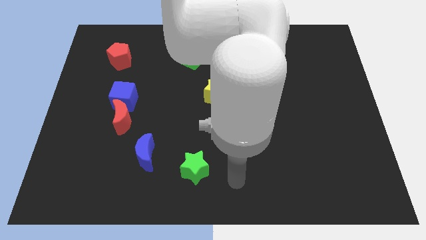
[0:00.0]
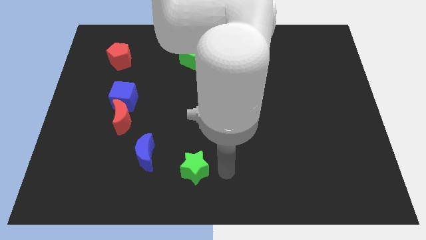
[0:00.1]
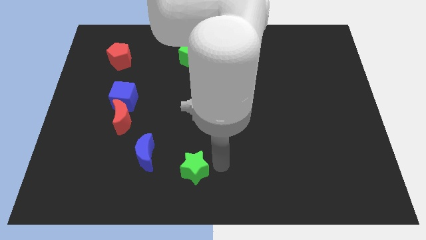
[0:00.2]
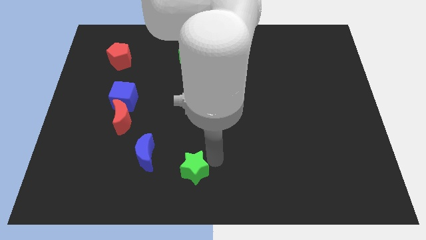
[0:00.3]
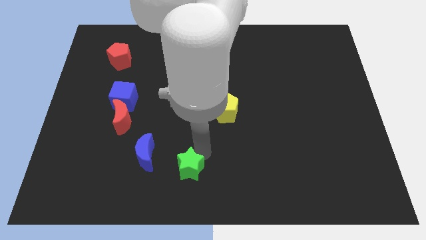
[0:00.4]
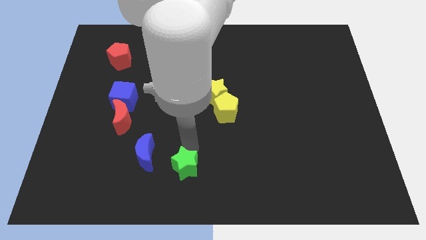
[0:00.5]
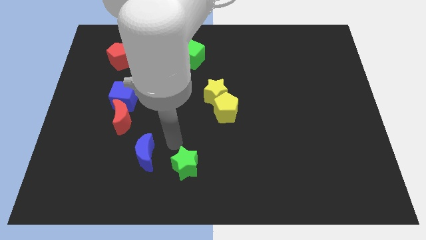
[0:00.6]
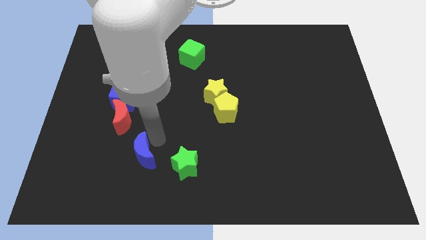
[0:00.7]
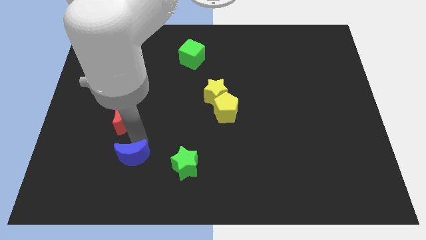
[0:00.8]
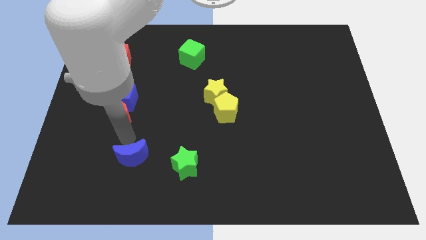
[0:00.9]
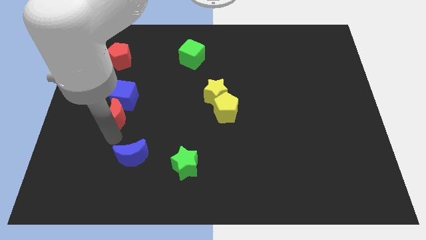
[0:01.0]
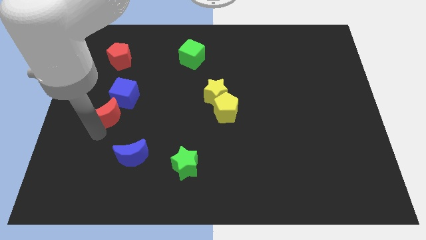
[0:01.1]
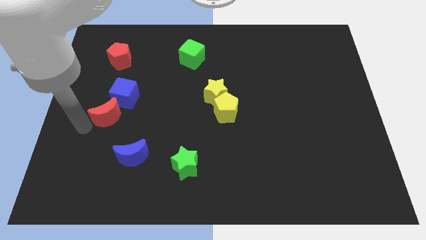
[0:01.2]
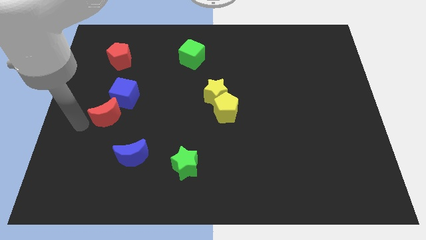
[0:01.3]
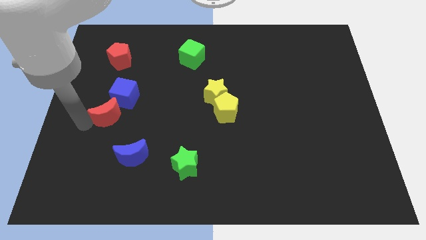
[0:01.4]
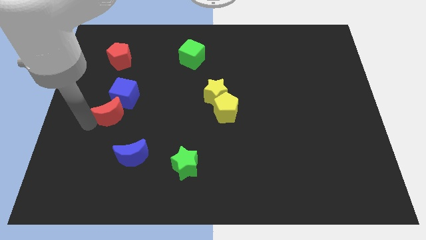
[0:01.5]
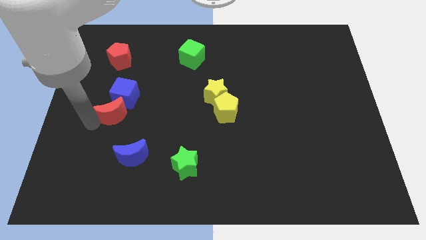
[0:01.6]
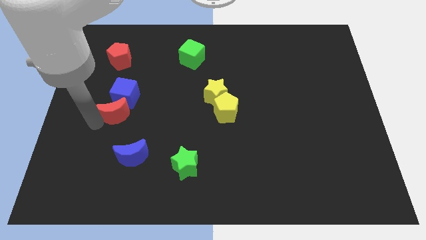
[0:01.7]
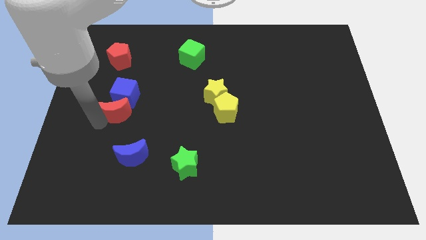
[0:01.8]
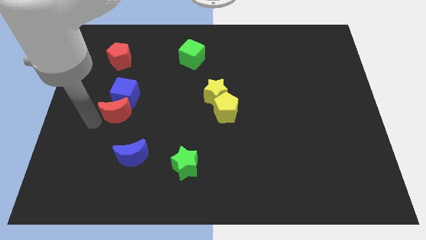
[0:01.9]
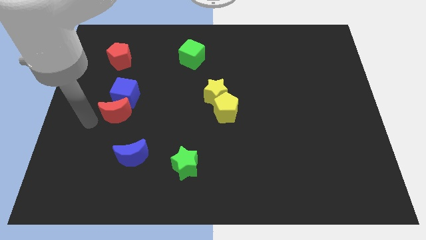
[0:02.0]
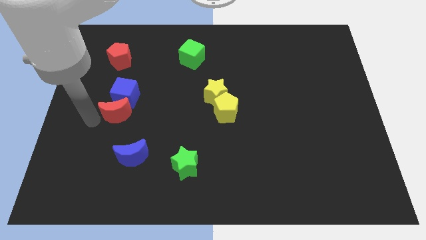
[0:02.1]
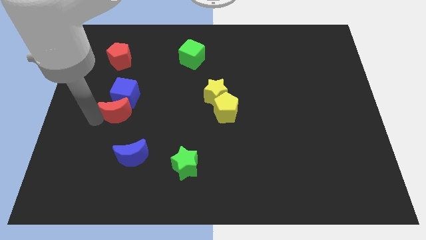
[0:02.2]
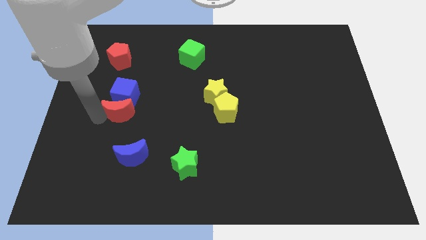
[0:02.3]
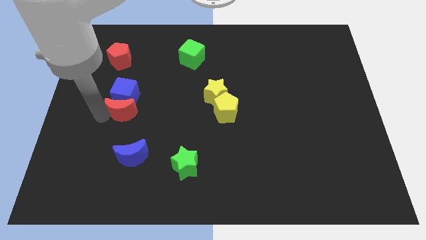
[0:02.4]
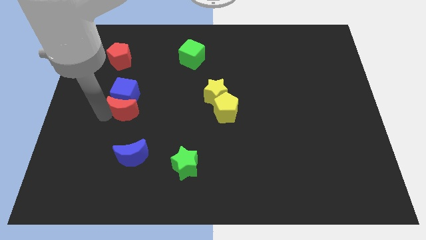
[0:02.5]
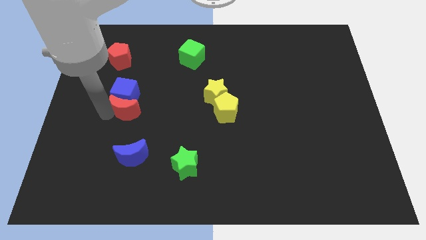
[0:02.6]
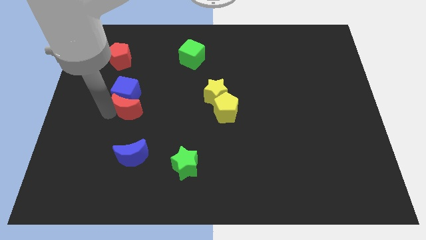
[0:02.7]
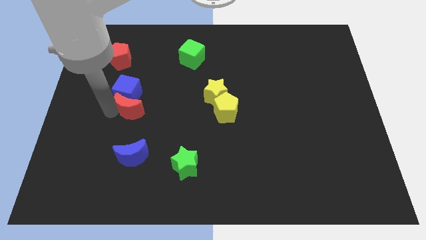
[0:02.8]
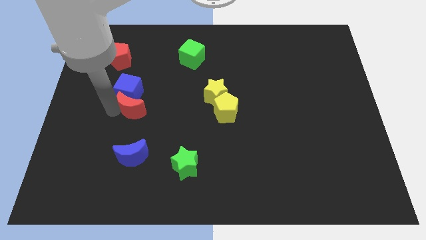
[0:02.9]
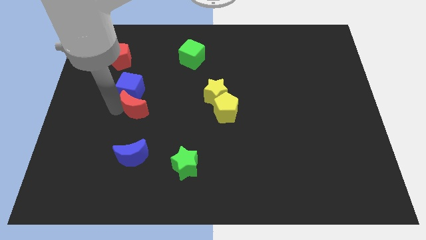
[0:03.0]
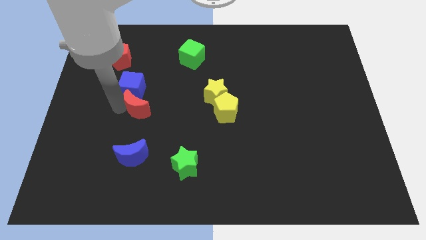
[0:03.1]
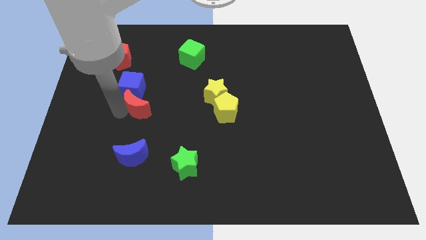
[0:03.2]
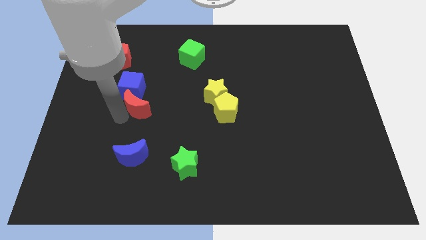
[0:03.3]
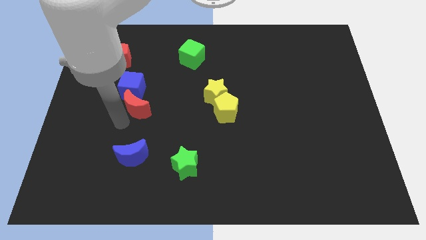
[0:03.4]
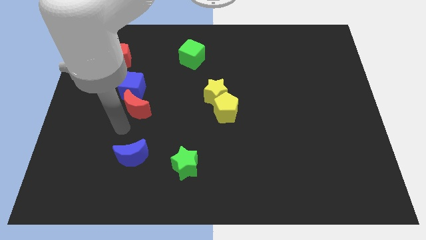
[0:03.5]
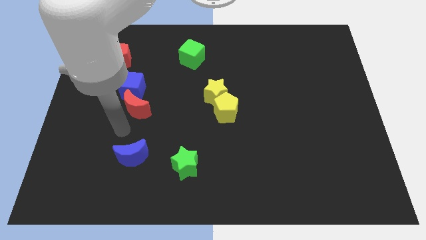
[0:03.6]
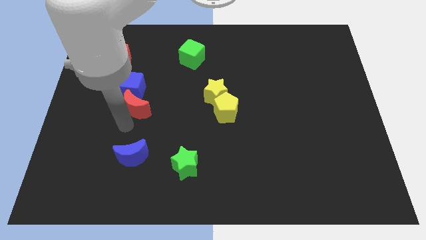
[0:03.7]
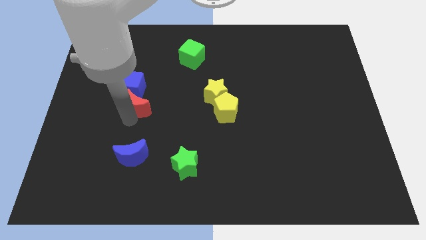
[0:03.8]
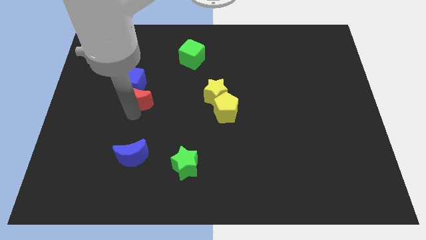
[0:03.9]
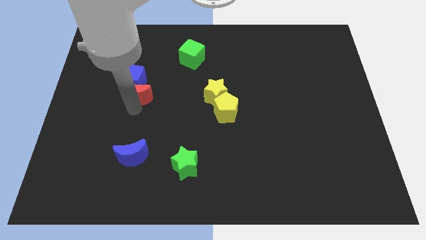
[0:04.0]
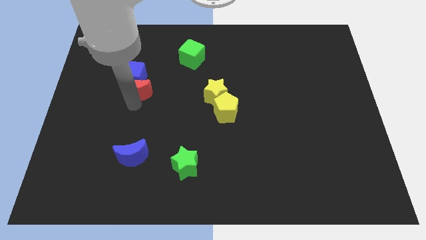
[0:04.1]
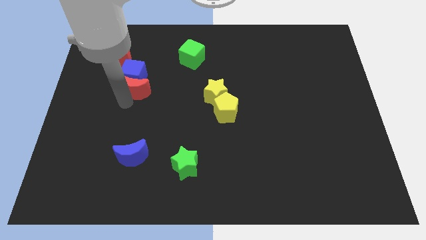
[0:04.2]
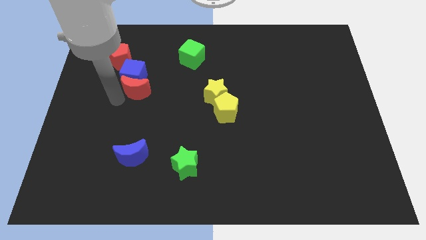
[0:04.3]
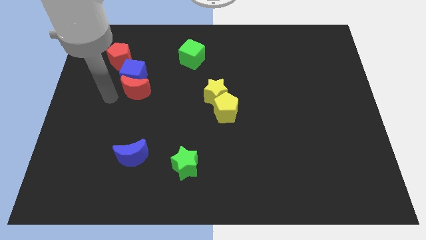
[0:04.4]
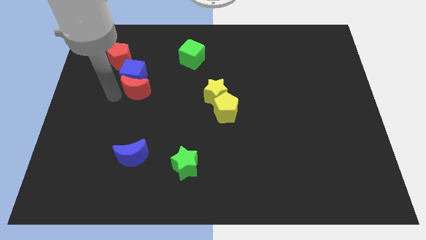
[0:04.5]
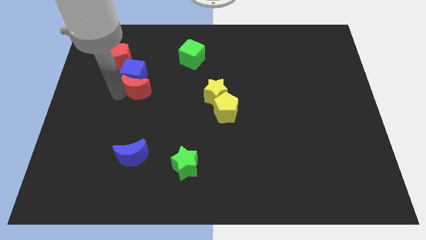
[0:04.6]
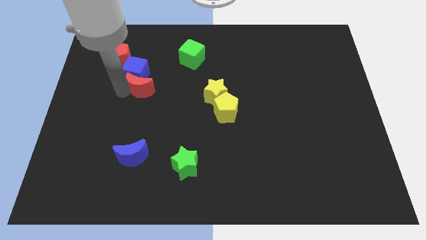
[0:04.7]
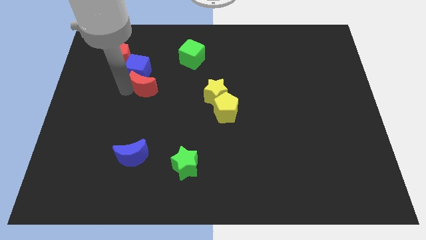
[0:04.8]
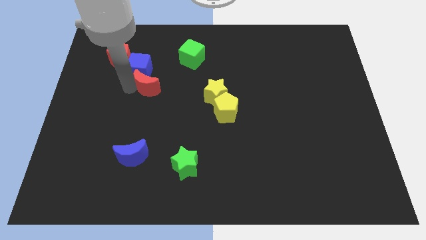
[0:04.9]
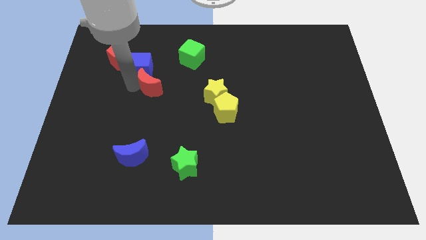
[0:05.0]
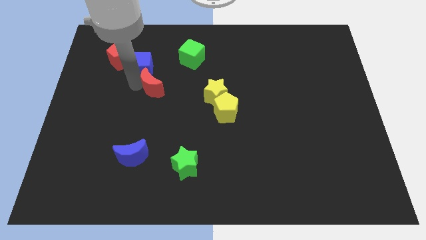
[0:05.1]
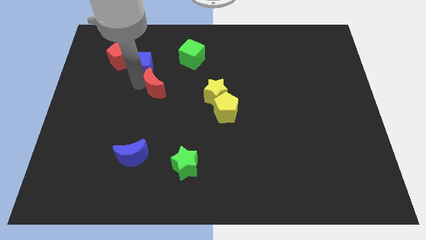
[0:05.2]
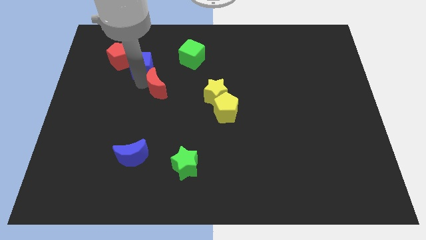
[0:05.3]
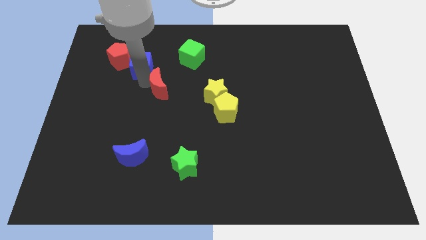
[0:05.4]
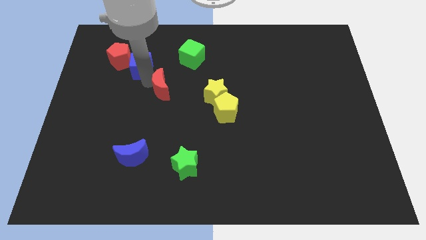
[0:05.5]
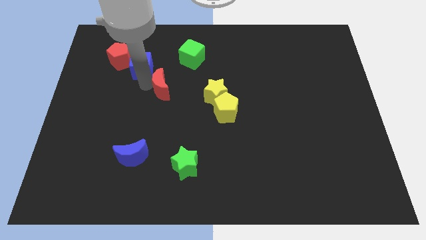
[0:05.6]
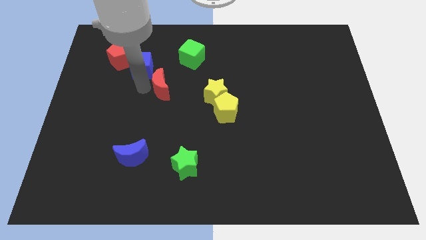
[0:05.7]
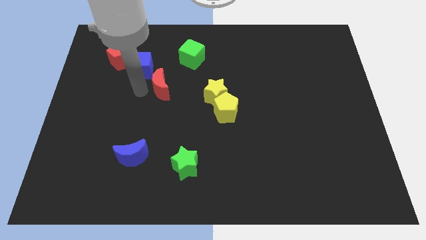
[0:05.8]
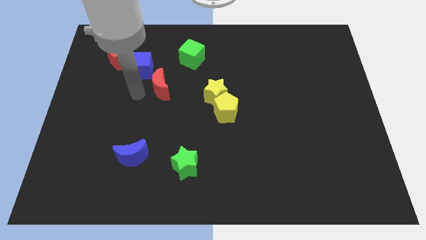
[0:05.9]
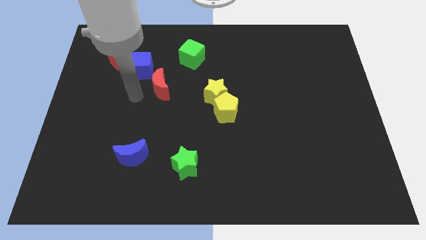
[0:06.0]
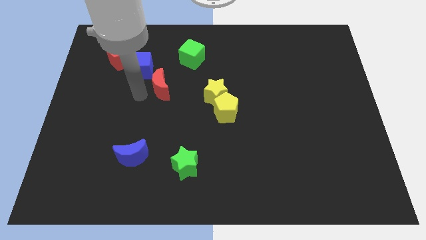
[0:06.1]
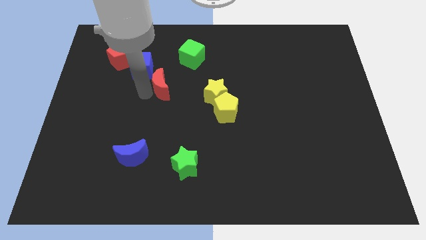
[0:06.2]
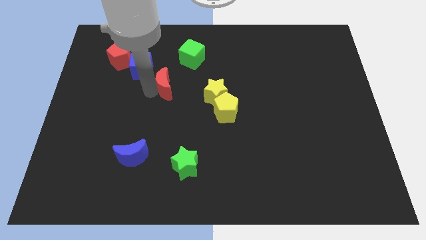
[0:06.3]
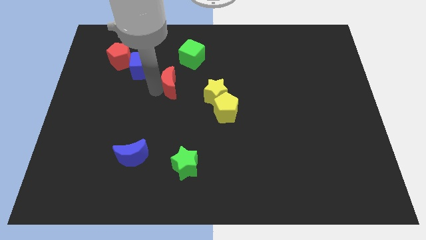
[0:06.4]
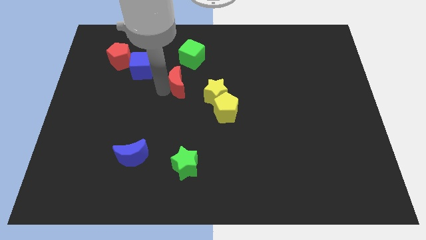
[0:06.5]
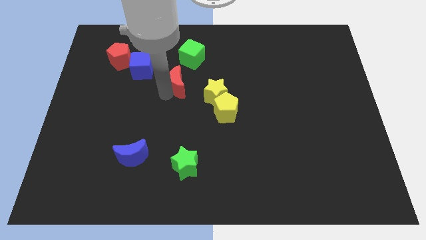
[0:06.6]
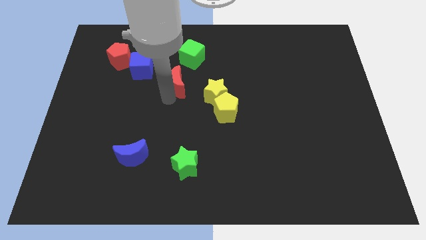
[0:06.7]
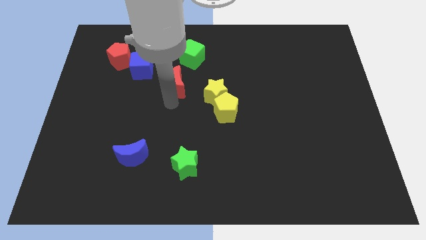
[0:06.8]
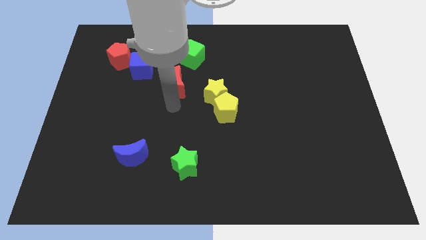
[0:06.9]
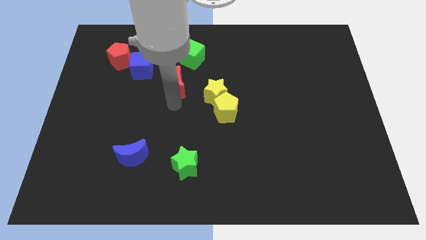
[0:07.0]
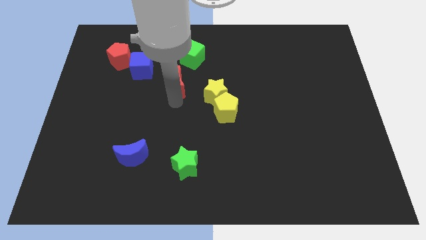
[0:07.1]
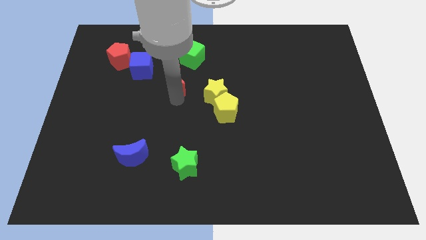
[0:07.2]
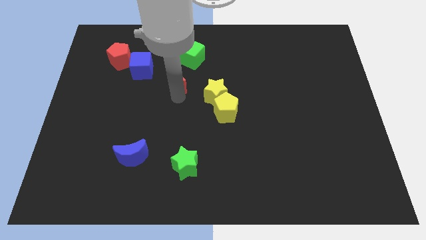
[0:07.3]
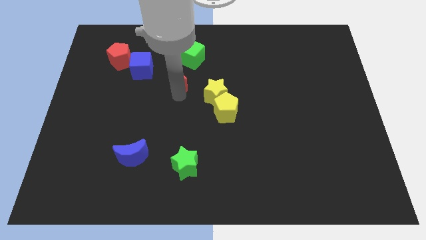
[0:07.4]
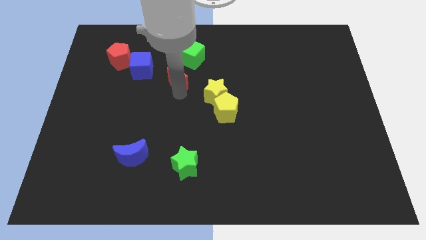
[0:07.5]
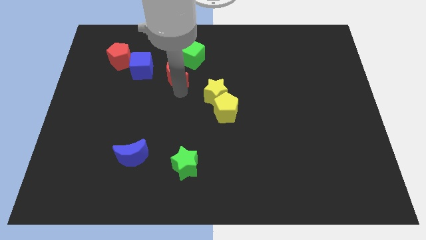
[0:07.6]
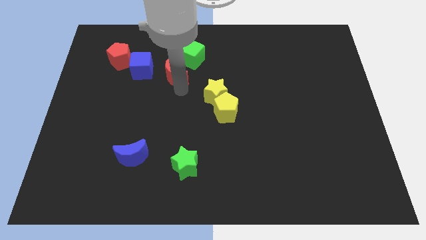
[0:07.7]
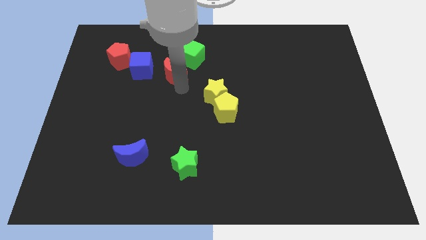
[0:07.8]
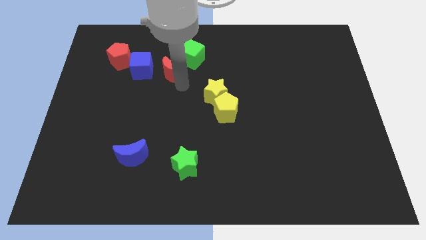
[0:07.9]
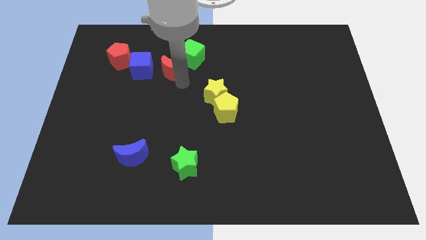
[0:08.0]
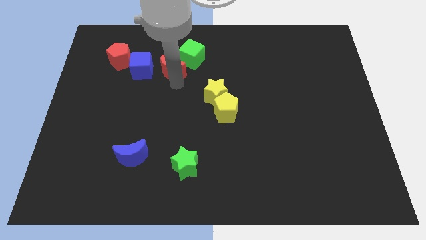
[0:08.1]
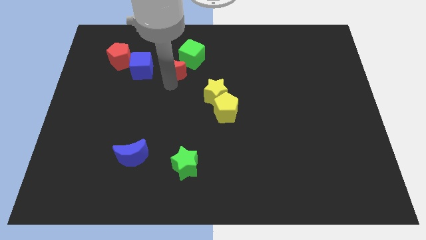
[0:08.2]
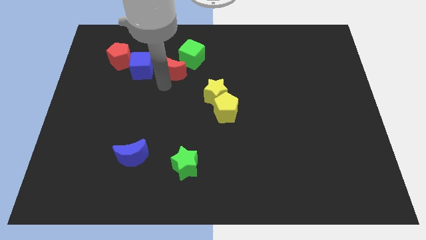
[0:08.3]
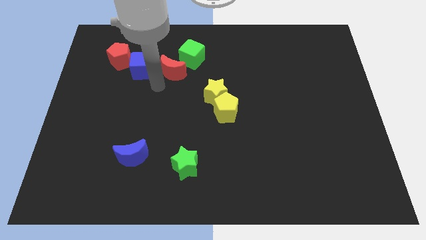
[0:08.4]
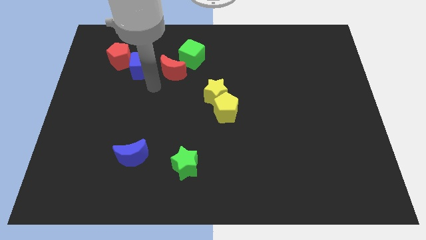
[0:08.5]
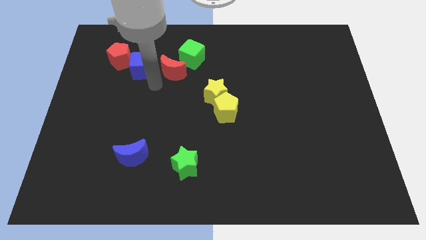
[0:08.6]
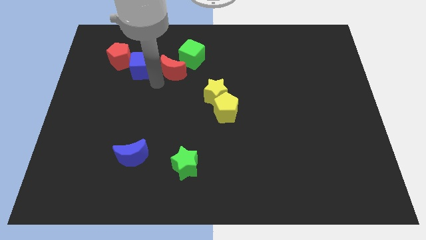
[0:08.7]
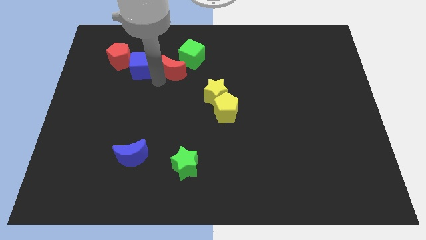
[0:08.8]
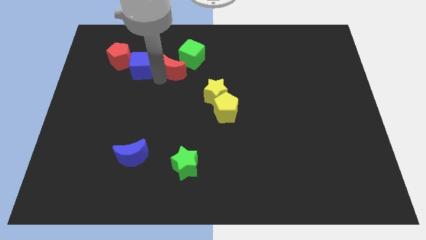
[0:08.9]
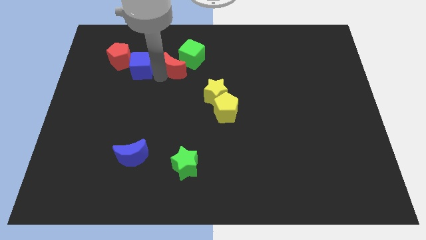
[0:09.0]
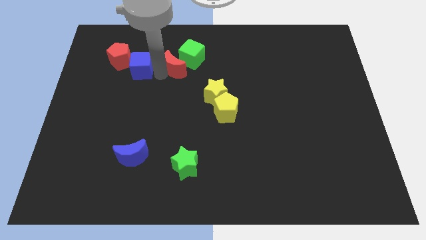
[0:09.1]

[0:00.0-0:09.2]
move the red moon towards the green cube
